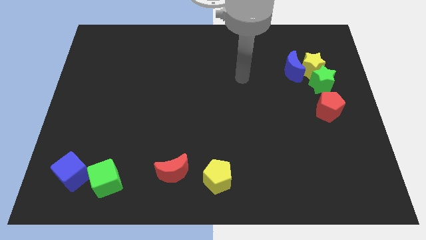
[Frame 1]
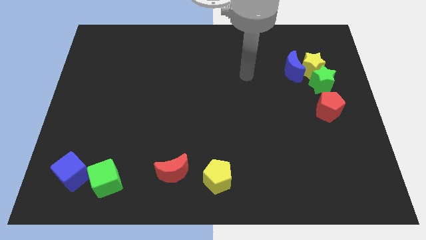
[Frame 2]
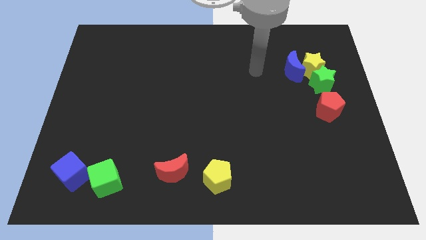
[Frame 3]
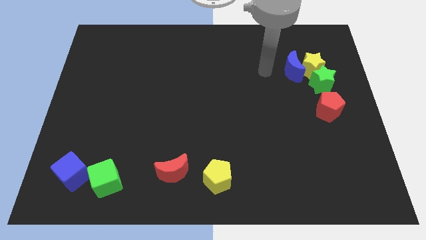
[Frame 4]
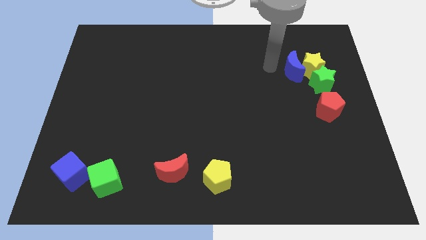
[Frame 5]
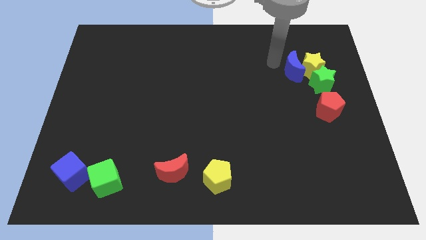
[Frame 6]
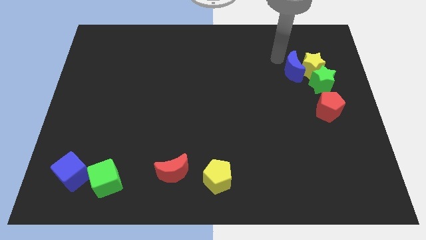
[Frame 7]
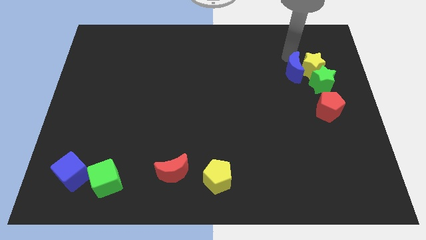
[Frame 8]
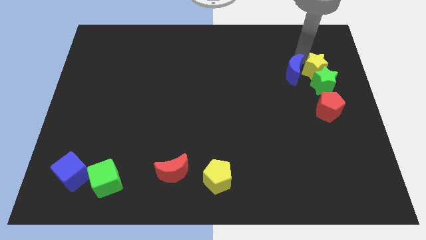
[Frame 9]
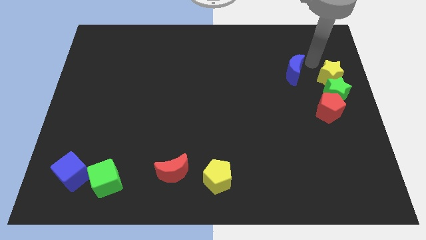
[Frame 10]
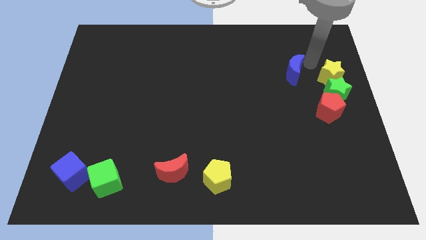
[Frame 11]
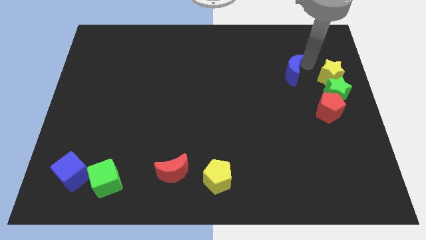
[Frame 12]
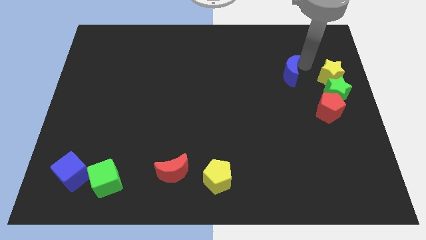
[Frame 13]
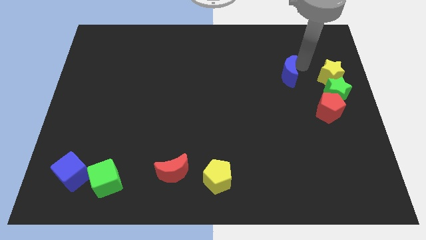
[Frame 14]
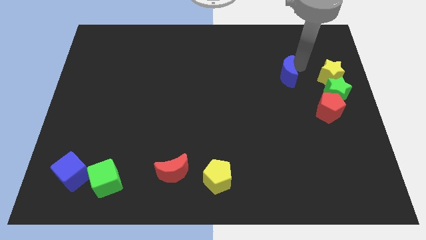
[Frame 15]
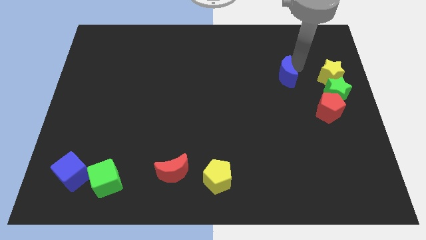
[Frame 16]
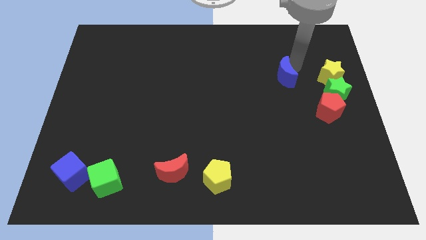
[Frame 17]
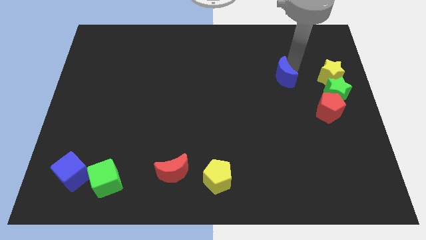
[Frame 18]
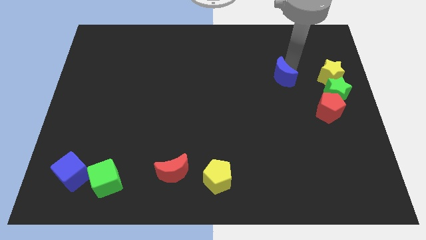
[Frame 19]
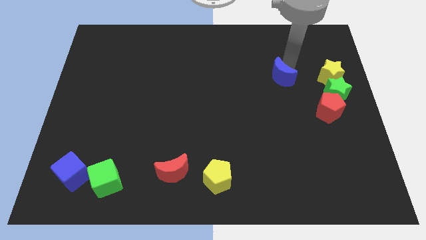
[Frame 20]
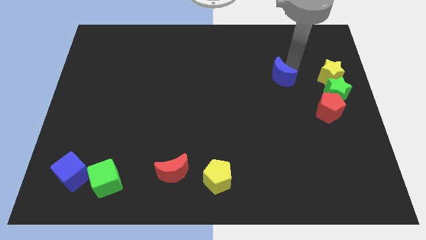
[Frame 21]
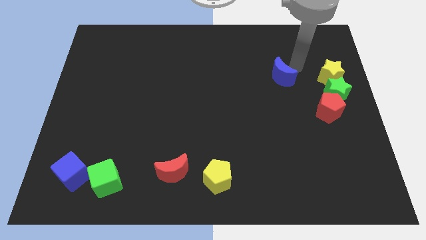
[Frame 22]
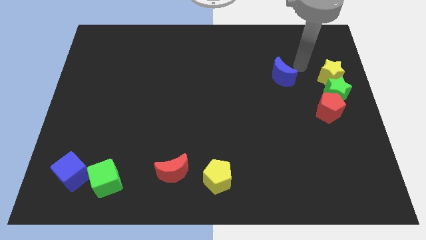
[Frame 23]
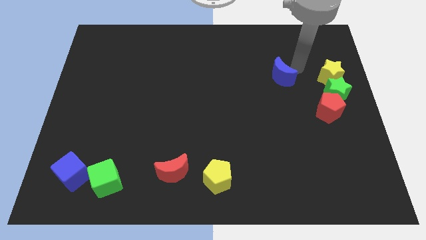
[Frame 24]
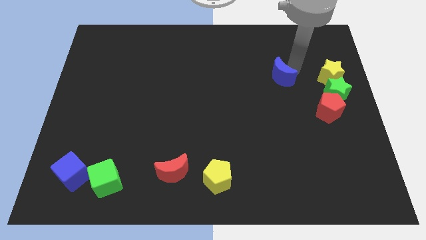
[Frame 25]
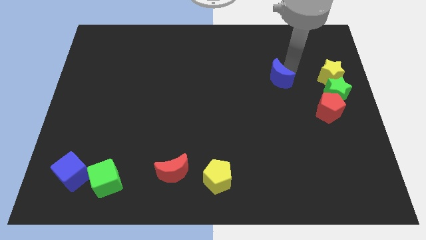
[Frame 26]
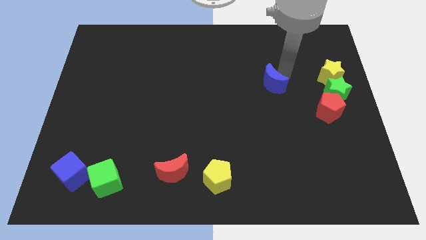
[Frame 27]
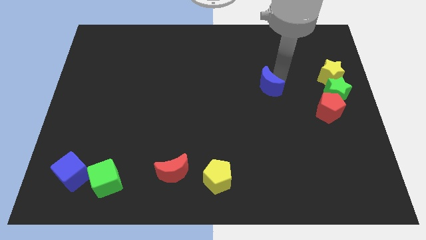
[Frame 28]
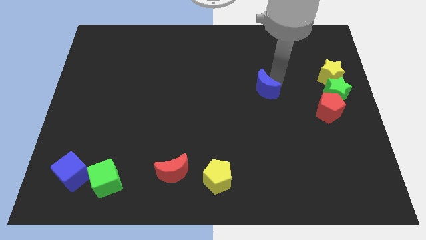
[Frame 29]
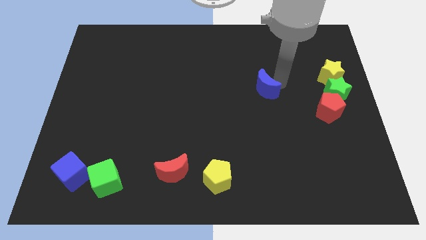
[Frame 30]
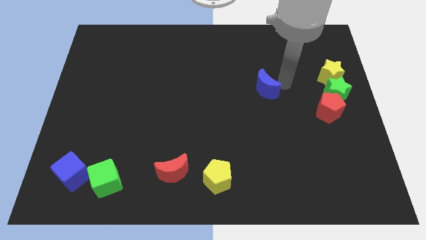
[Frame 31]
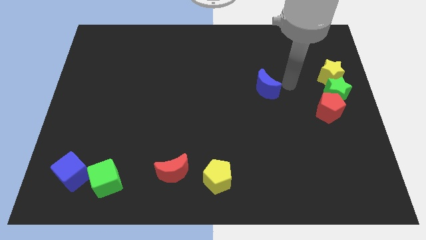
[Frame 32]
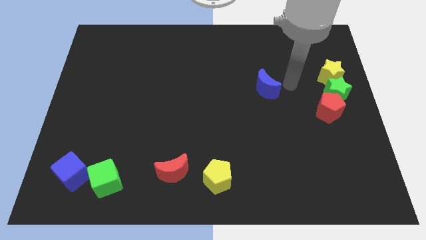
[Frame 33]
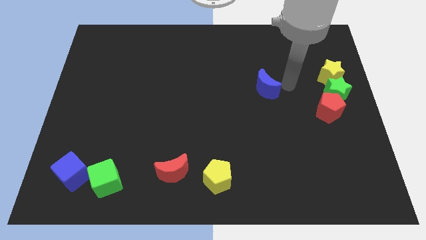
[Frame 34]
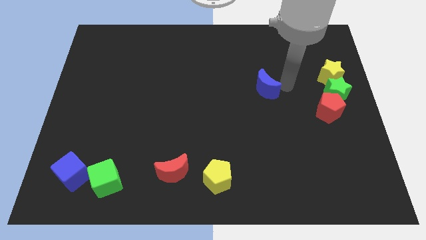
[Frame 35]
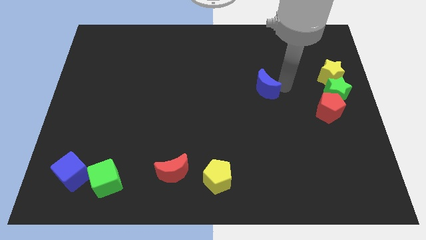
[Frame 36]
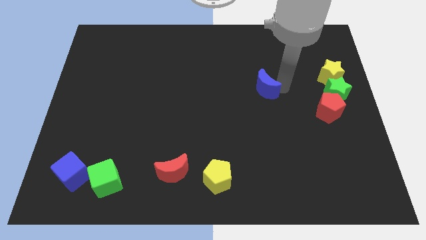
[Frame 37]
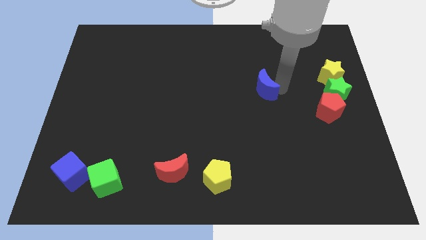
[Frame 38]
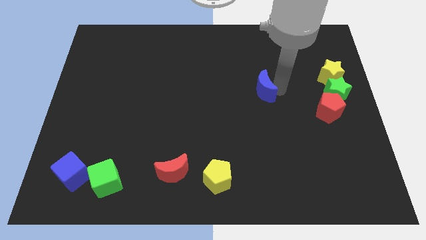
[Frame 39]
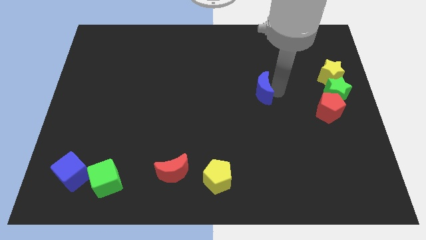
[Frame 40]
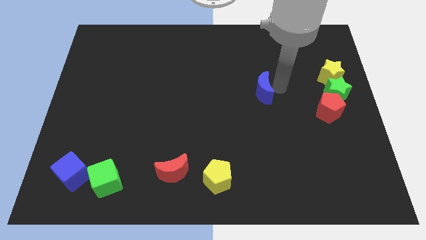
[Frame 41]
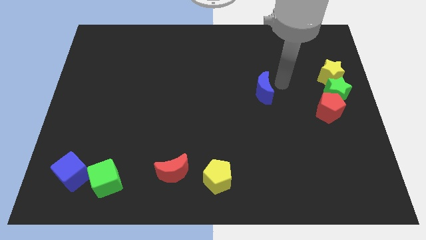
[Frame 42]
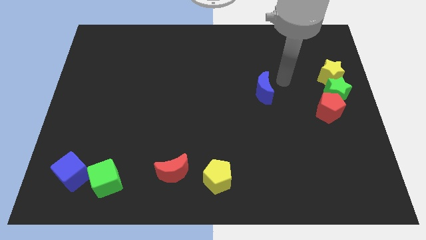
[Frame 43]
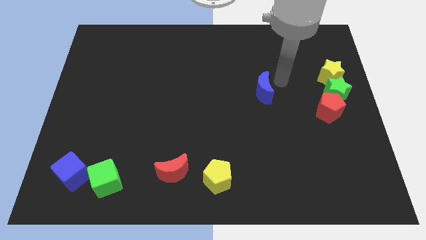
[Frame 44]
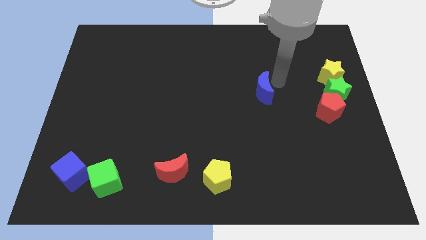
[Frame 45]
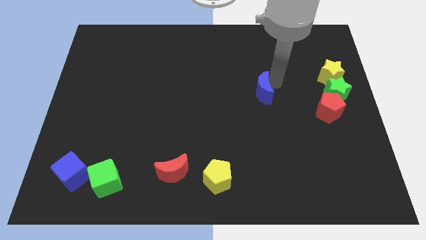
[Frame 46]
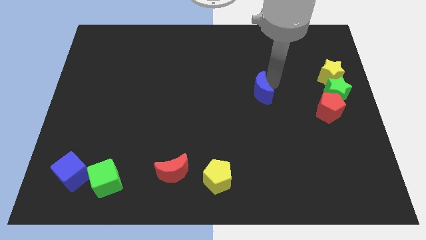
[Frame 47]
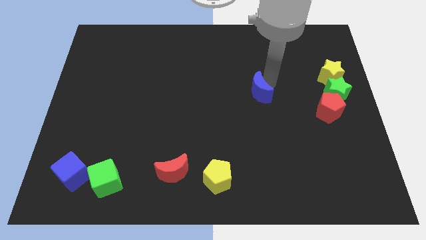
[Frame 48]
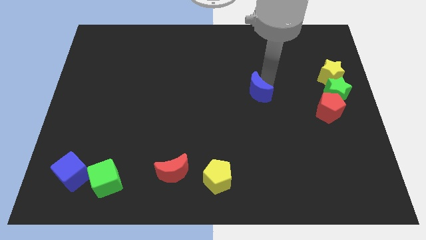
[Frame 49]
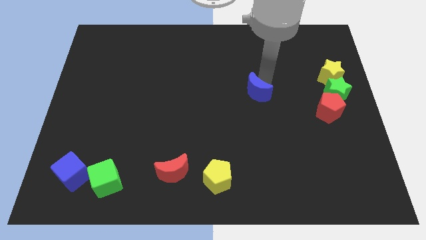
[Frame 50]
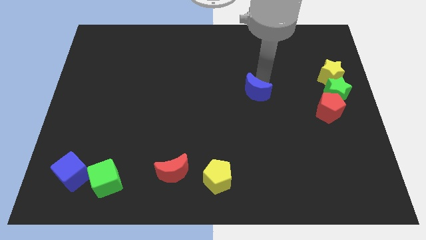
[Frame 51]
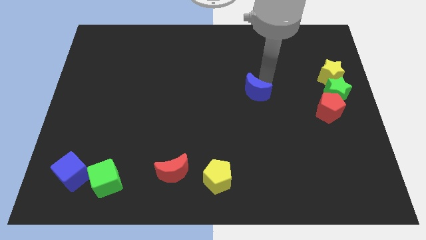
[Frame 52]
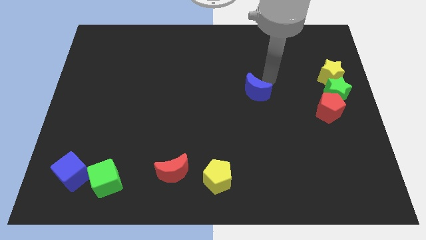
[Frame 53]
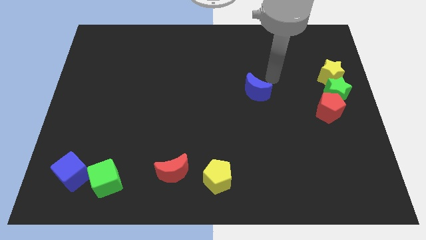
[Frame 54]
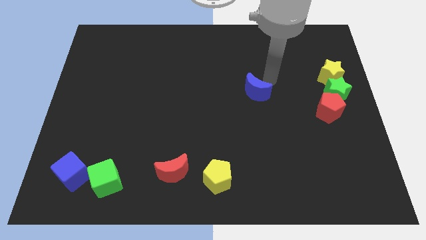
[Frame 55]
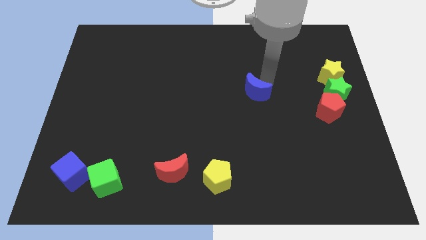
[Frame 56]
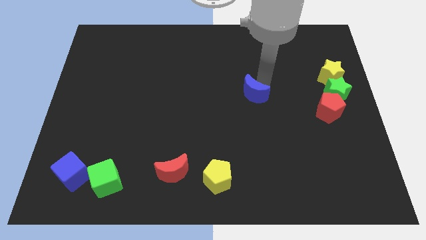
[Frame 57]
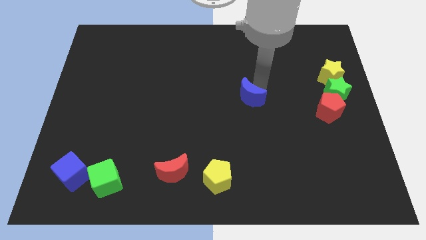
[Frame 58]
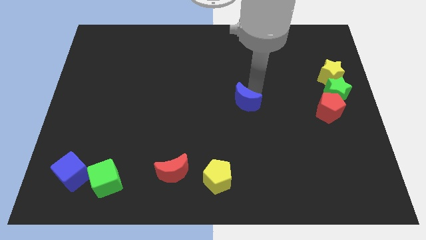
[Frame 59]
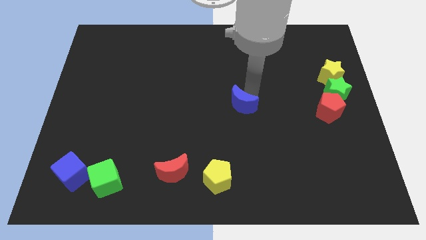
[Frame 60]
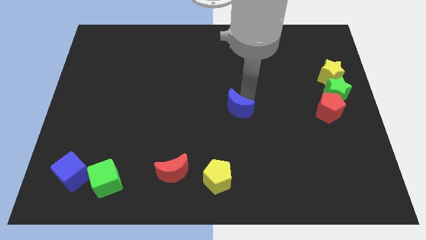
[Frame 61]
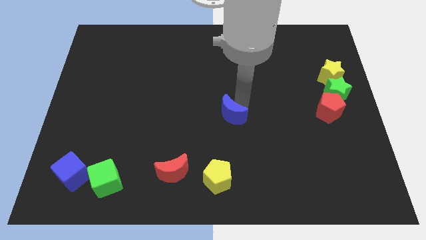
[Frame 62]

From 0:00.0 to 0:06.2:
slide the blue moon down and to the left

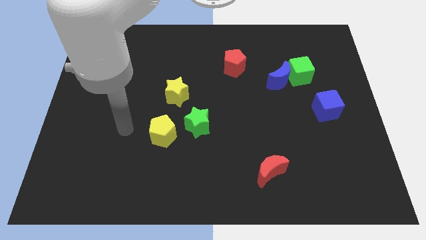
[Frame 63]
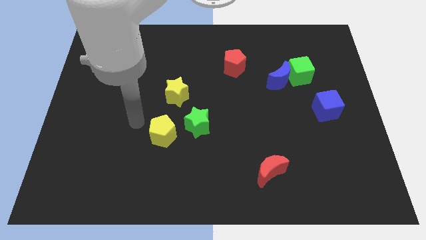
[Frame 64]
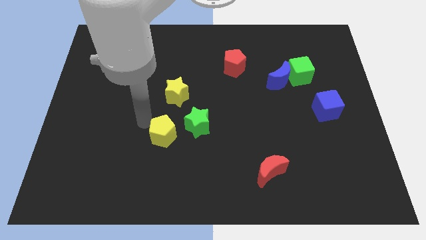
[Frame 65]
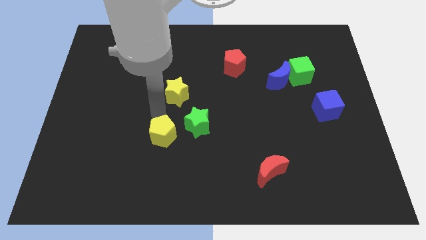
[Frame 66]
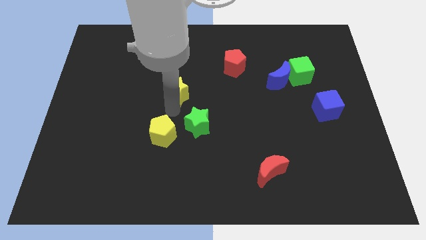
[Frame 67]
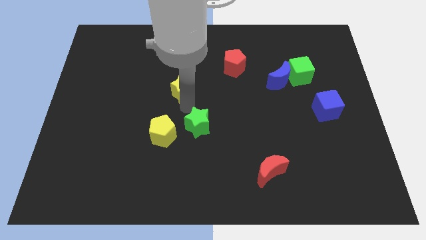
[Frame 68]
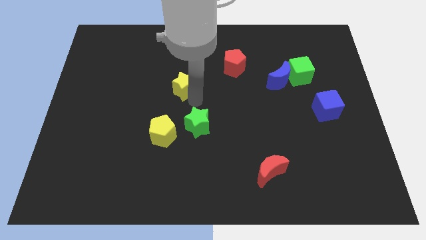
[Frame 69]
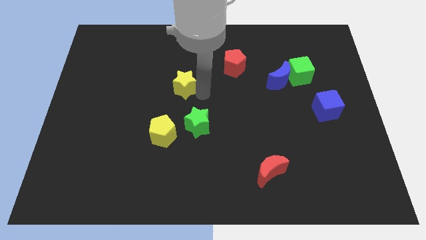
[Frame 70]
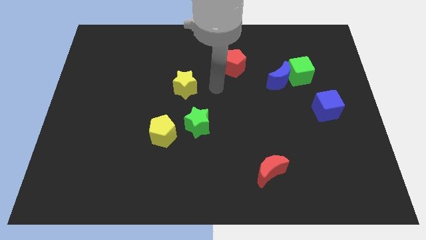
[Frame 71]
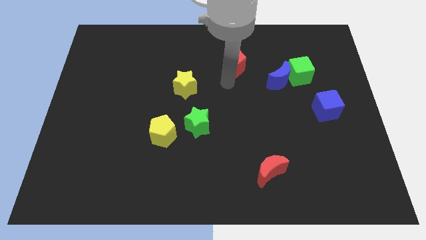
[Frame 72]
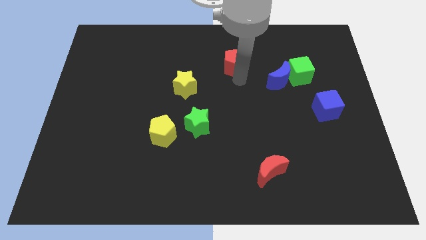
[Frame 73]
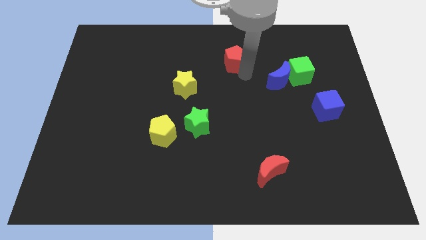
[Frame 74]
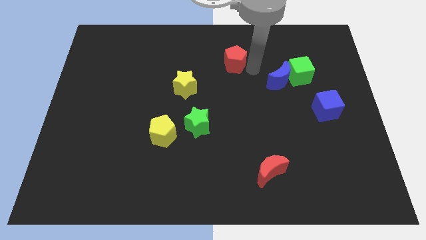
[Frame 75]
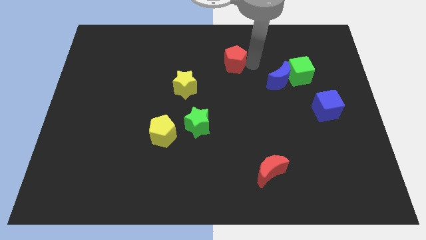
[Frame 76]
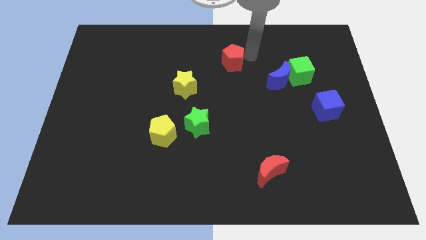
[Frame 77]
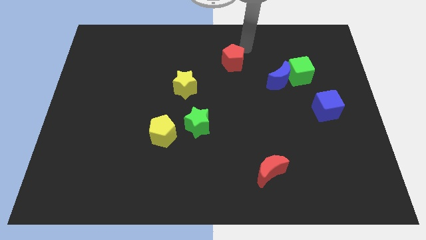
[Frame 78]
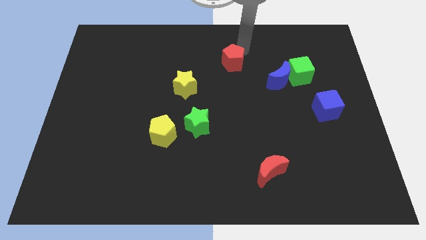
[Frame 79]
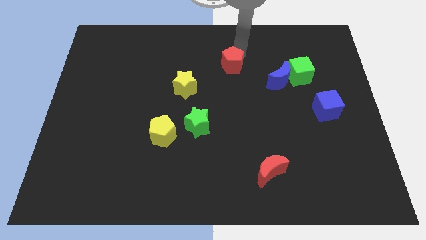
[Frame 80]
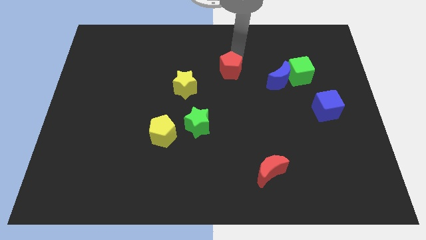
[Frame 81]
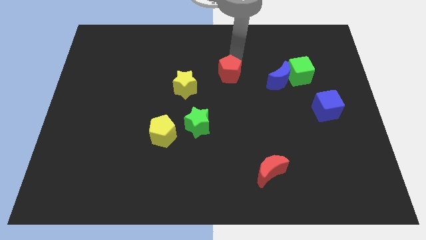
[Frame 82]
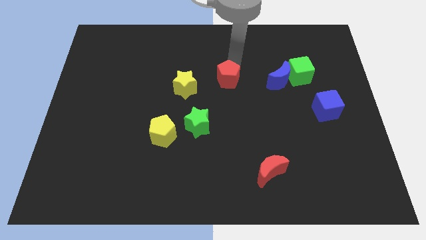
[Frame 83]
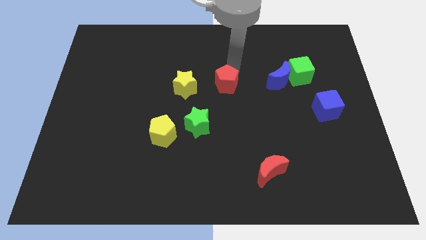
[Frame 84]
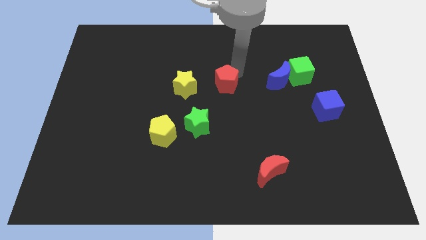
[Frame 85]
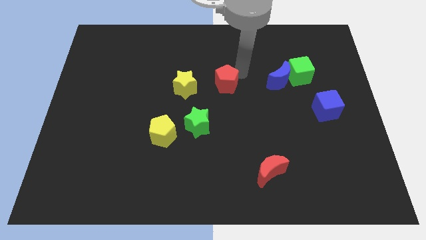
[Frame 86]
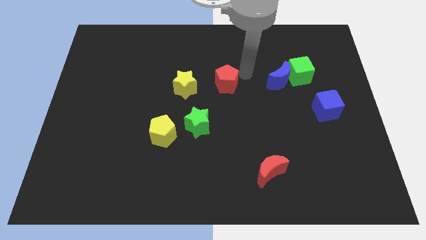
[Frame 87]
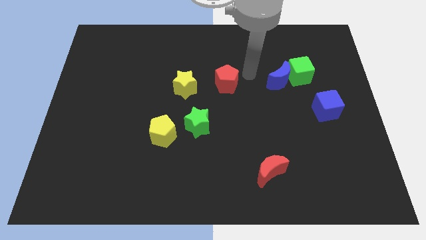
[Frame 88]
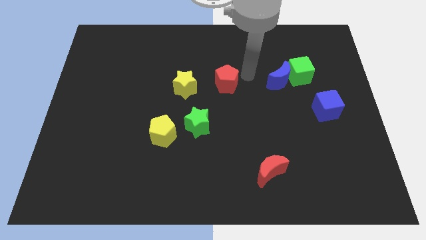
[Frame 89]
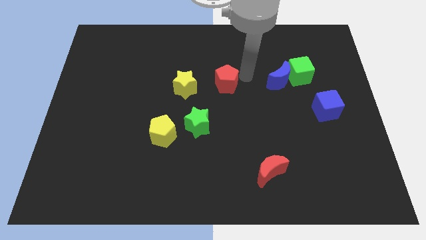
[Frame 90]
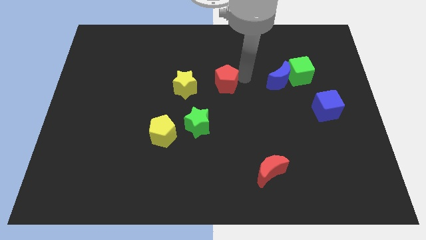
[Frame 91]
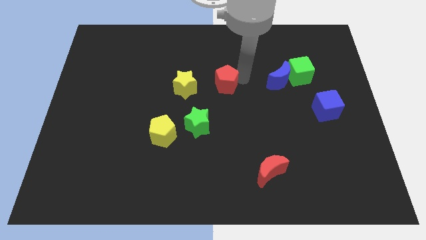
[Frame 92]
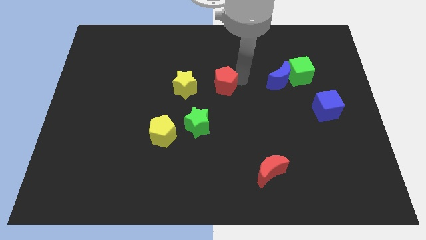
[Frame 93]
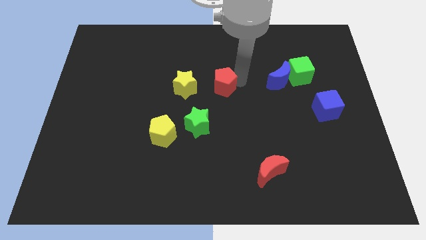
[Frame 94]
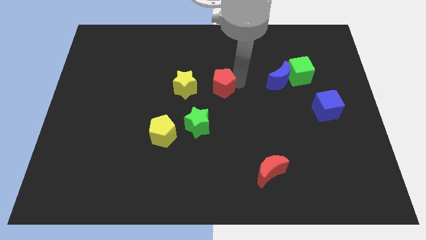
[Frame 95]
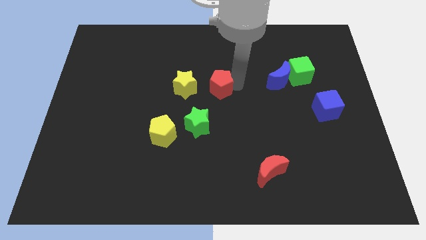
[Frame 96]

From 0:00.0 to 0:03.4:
slightly push the red pentagon downwards and left diagonally
